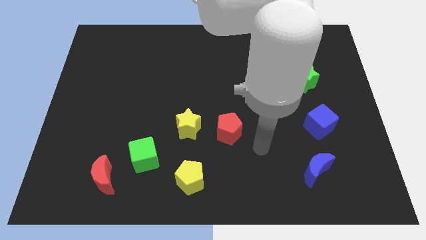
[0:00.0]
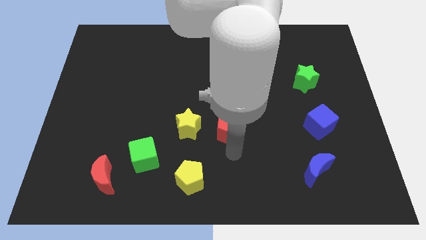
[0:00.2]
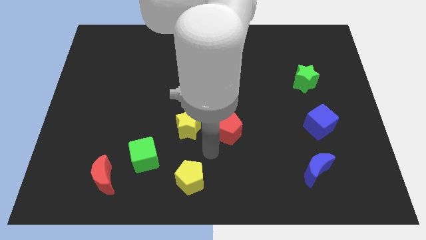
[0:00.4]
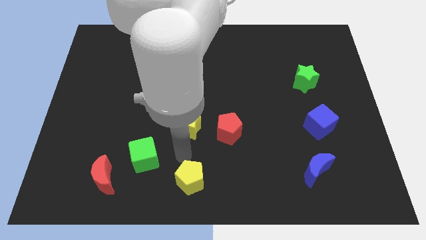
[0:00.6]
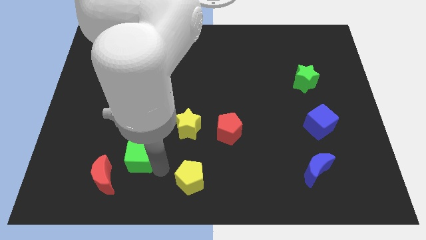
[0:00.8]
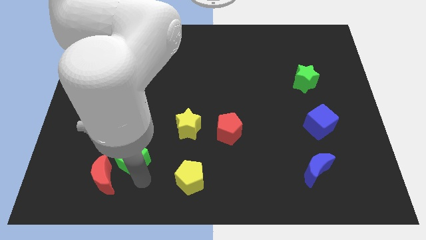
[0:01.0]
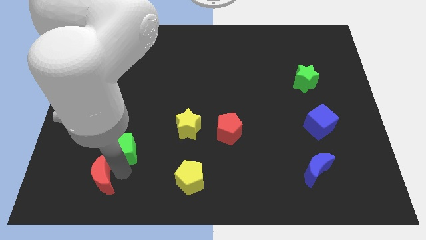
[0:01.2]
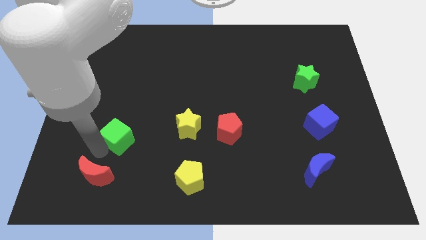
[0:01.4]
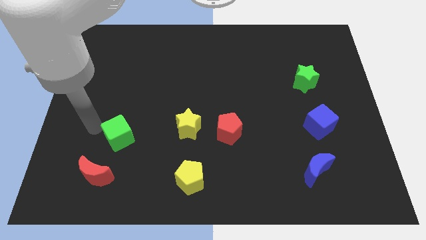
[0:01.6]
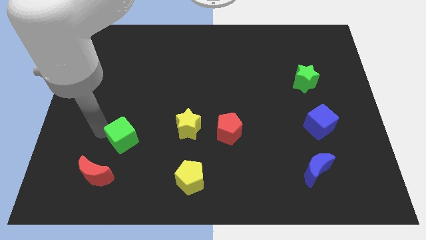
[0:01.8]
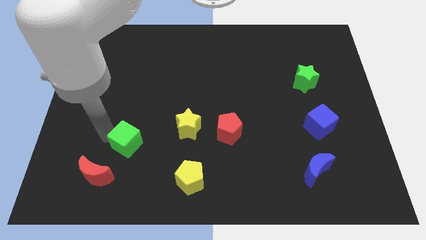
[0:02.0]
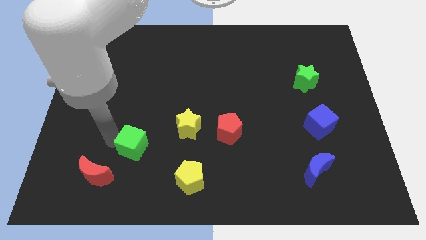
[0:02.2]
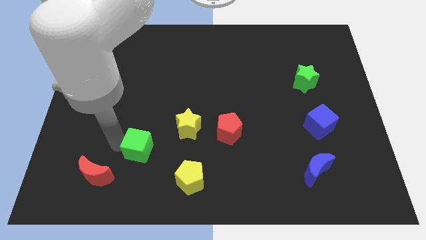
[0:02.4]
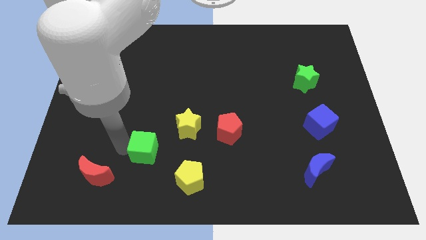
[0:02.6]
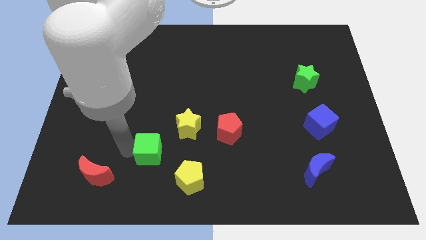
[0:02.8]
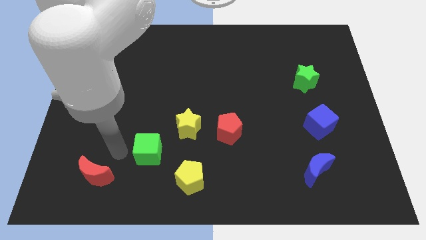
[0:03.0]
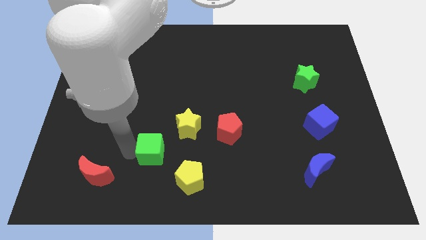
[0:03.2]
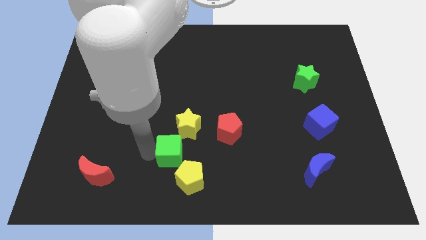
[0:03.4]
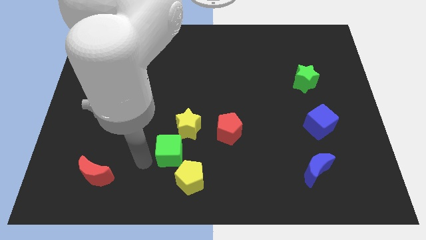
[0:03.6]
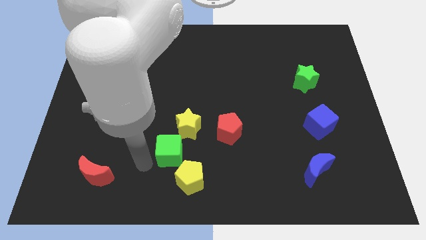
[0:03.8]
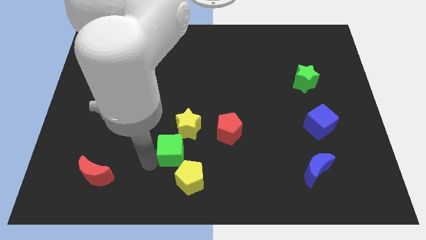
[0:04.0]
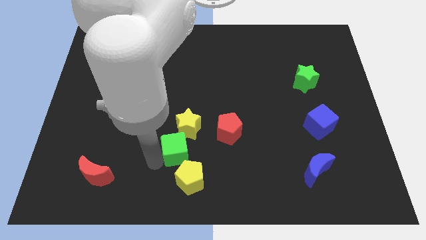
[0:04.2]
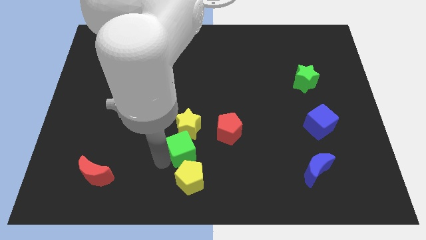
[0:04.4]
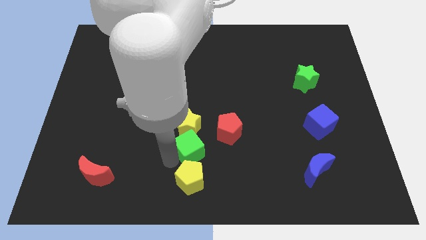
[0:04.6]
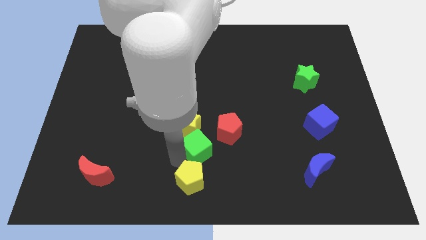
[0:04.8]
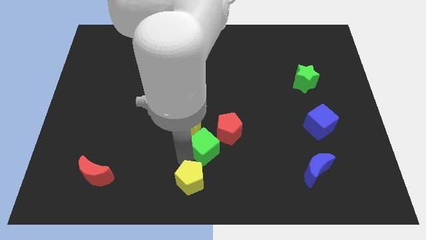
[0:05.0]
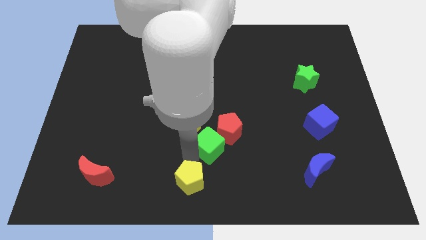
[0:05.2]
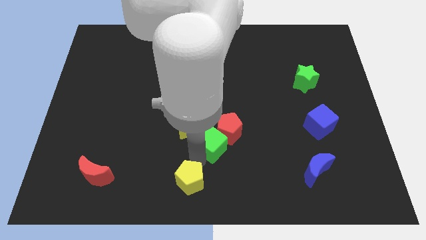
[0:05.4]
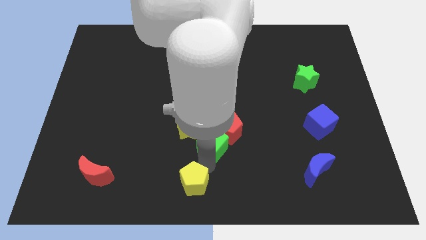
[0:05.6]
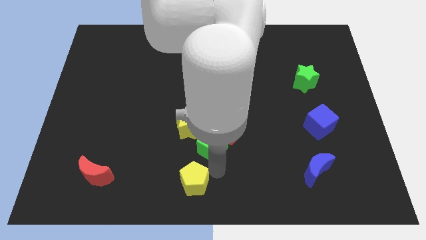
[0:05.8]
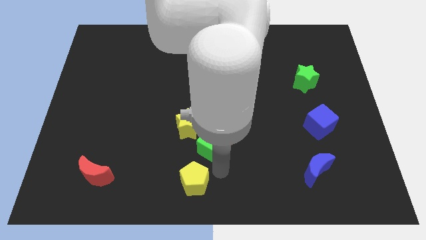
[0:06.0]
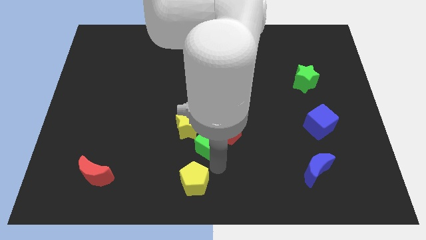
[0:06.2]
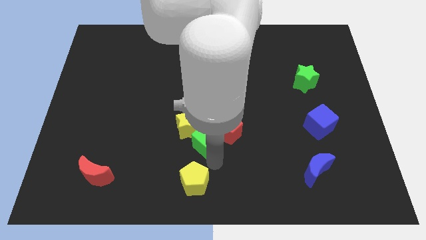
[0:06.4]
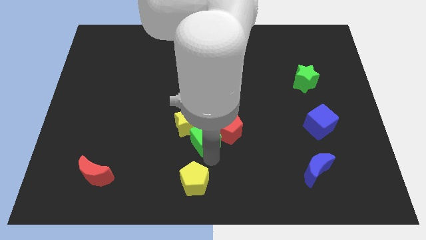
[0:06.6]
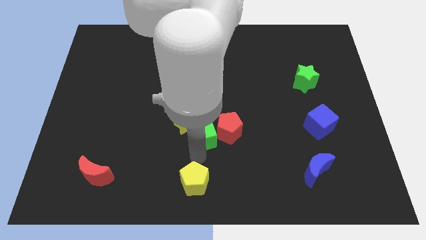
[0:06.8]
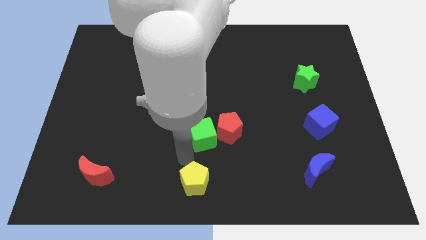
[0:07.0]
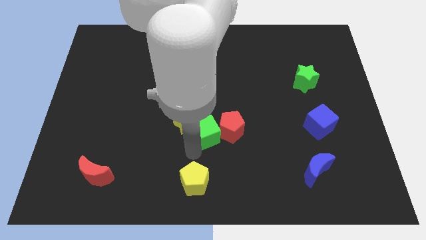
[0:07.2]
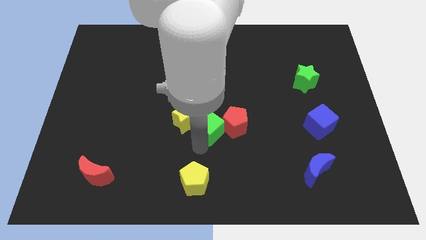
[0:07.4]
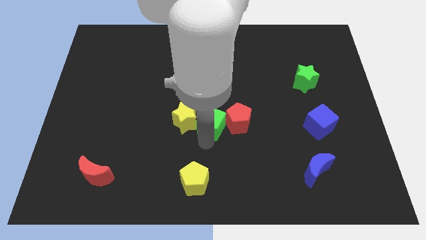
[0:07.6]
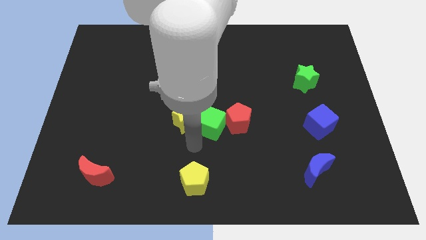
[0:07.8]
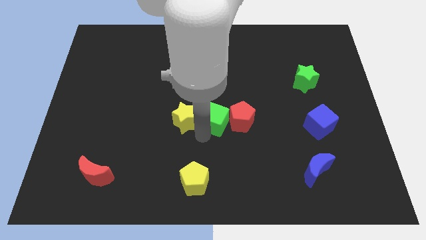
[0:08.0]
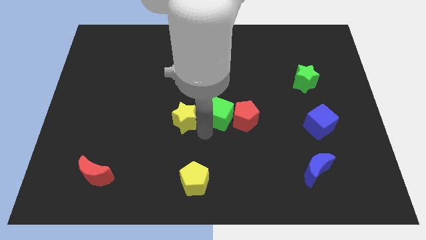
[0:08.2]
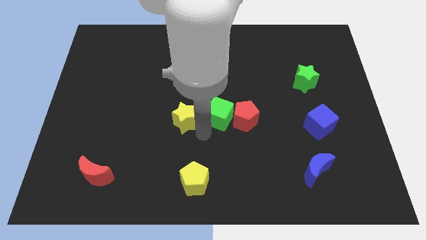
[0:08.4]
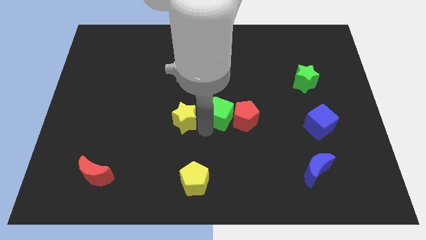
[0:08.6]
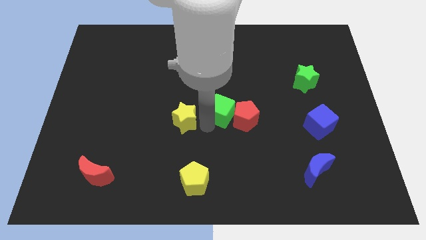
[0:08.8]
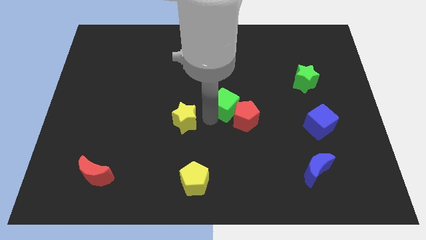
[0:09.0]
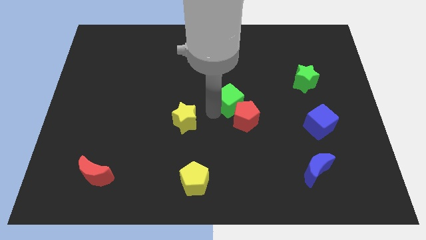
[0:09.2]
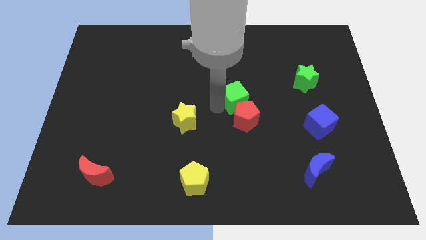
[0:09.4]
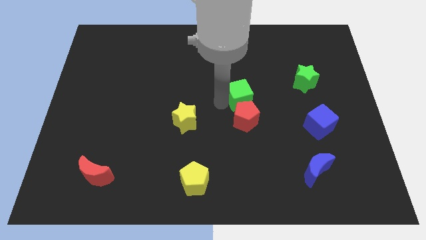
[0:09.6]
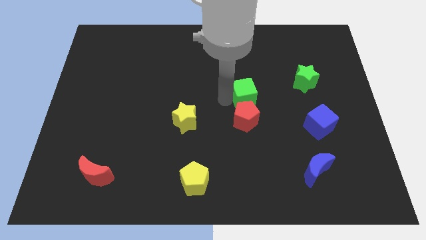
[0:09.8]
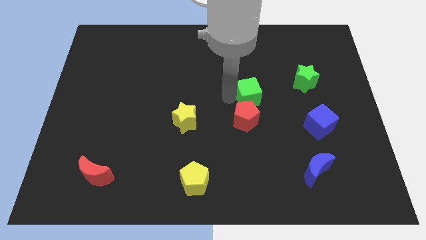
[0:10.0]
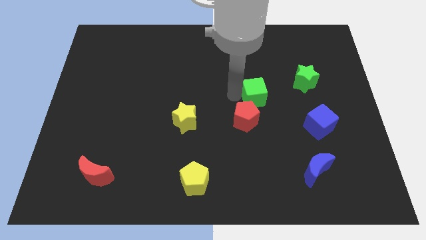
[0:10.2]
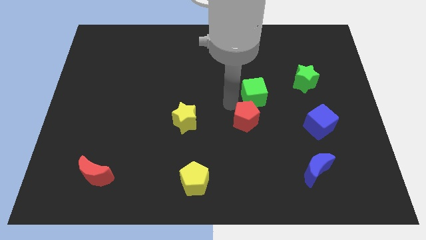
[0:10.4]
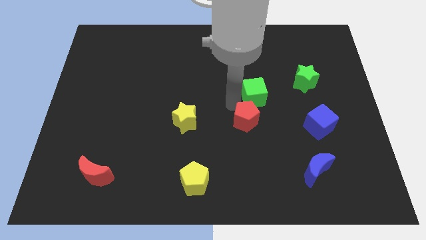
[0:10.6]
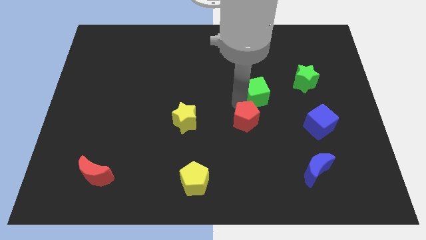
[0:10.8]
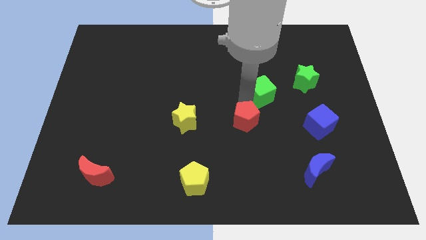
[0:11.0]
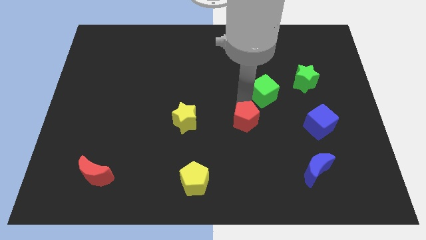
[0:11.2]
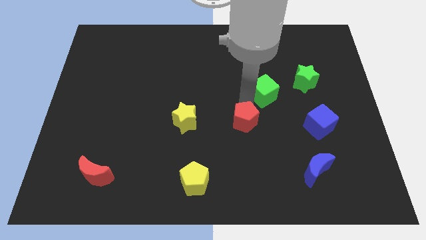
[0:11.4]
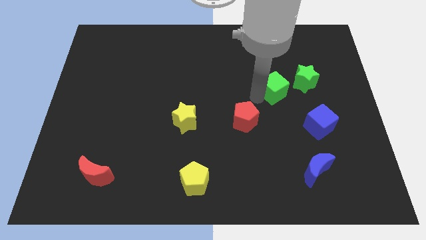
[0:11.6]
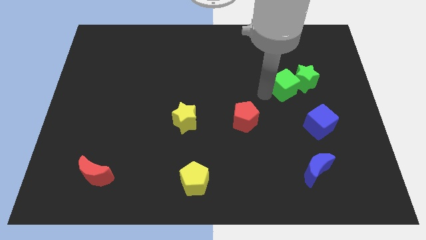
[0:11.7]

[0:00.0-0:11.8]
slide the green cube towards the green star
